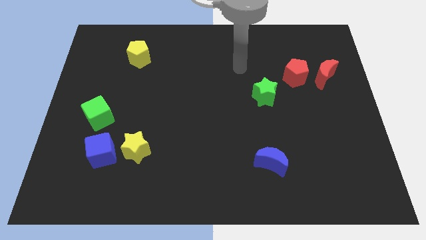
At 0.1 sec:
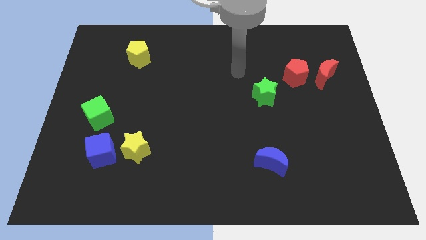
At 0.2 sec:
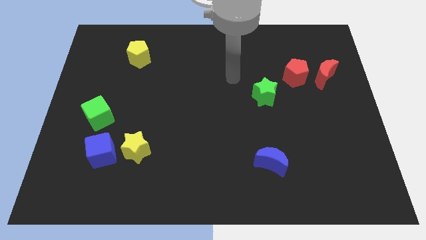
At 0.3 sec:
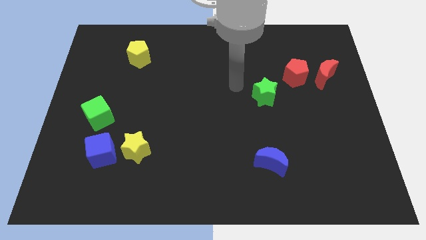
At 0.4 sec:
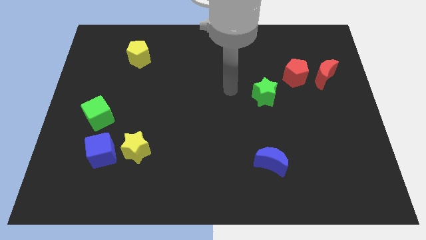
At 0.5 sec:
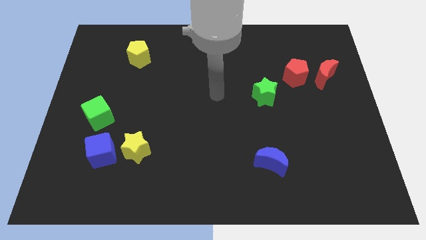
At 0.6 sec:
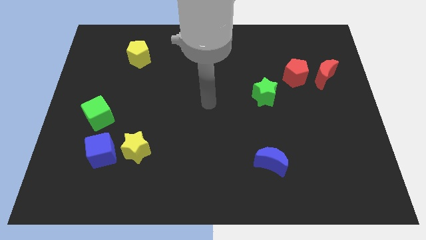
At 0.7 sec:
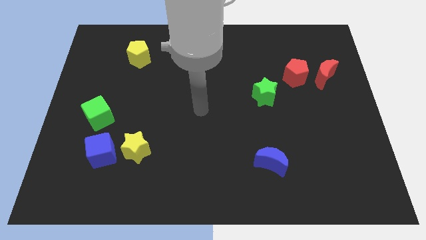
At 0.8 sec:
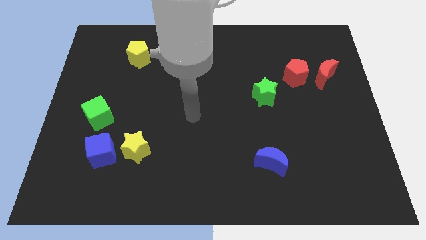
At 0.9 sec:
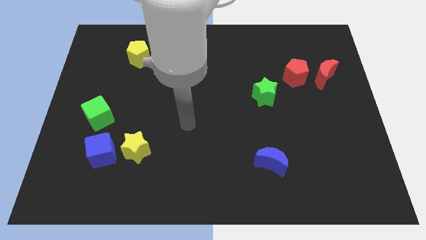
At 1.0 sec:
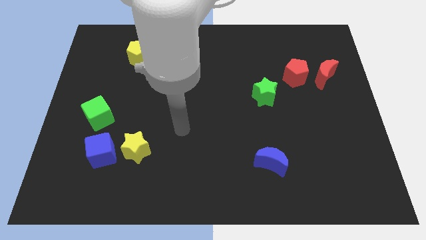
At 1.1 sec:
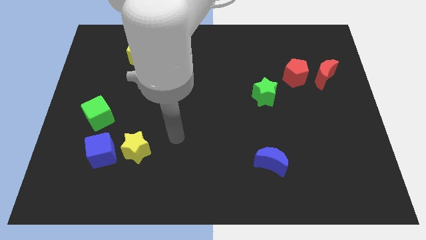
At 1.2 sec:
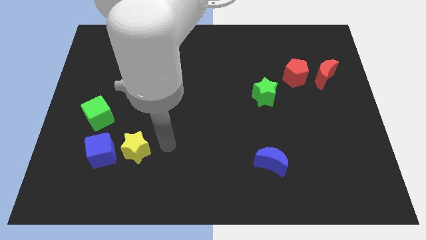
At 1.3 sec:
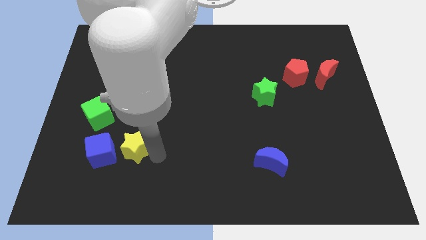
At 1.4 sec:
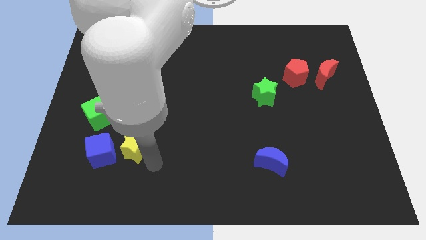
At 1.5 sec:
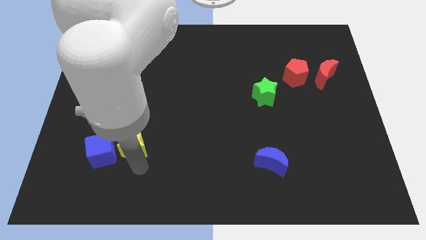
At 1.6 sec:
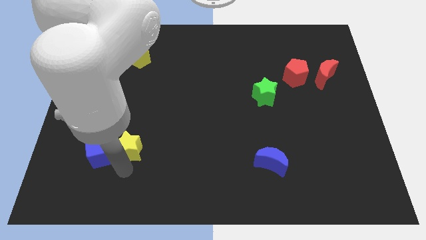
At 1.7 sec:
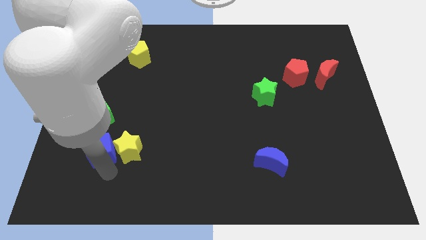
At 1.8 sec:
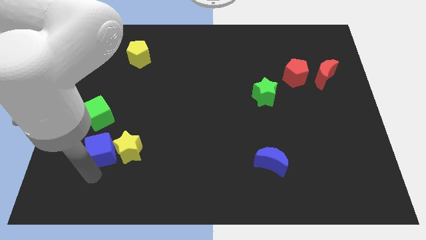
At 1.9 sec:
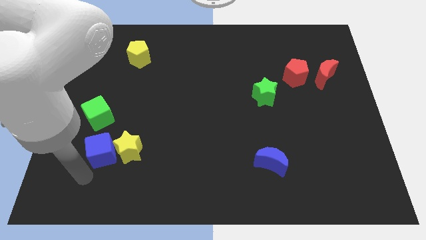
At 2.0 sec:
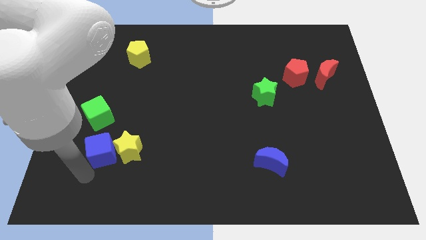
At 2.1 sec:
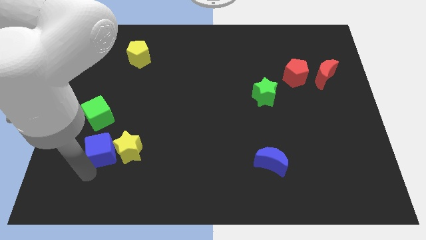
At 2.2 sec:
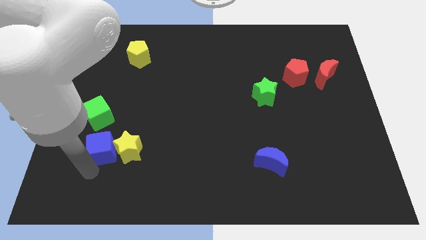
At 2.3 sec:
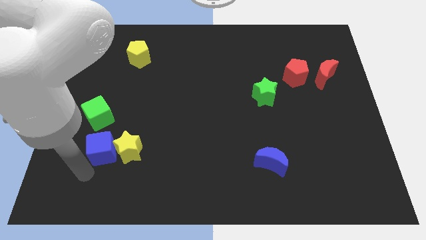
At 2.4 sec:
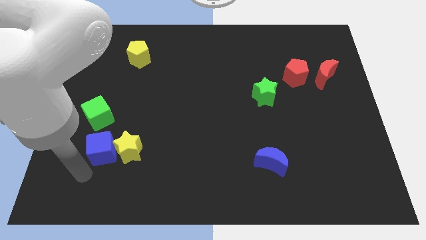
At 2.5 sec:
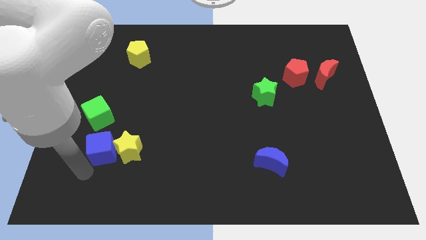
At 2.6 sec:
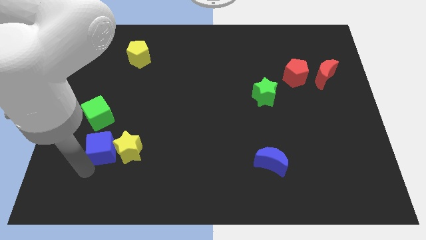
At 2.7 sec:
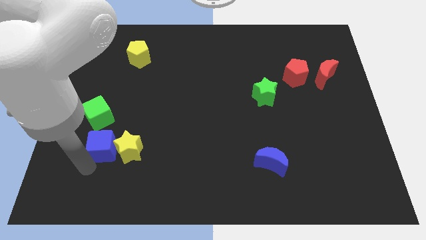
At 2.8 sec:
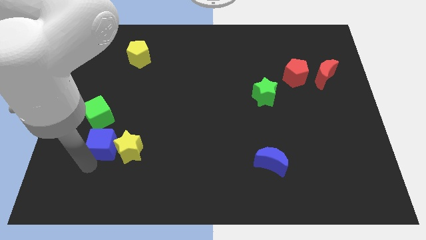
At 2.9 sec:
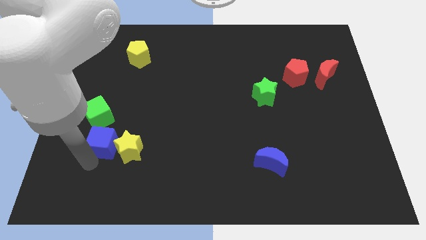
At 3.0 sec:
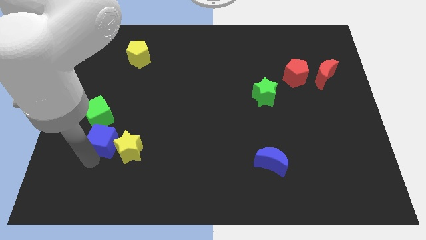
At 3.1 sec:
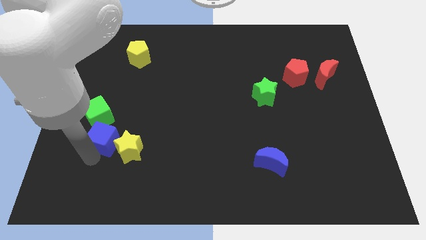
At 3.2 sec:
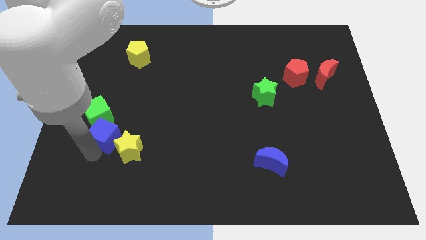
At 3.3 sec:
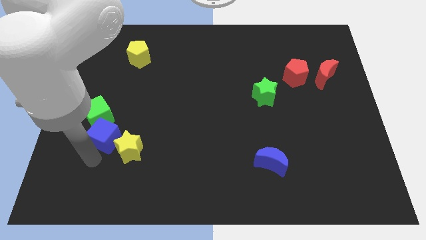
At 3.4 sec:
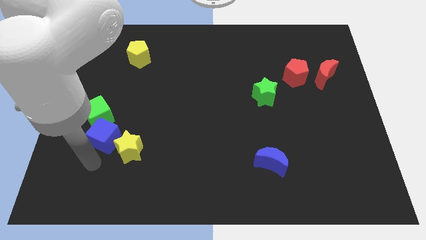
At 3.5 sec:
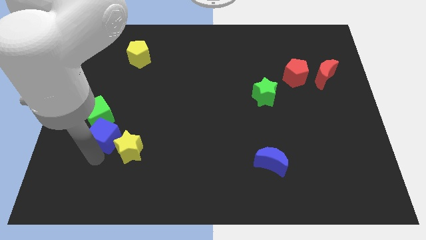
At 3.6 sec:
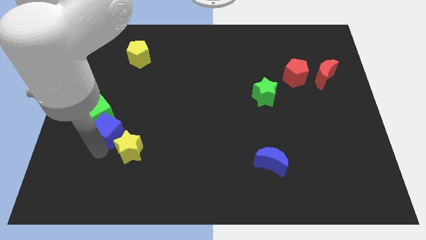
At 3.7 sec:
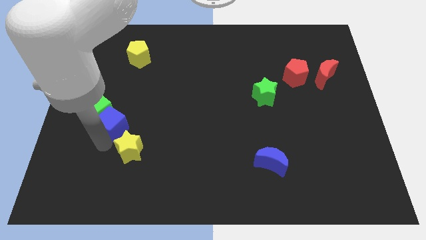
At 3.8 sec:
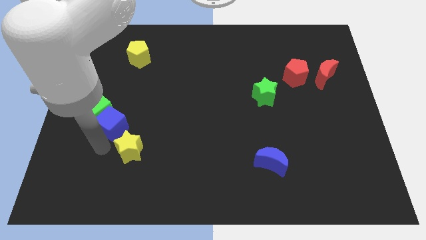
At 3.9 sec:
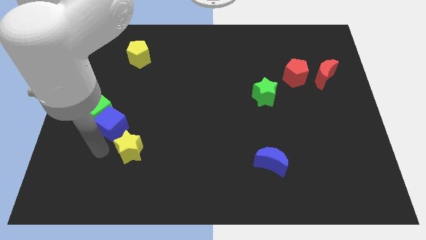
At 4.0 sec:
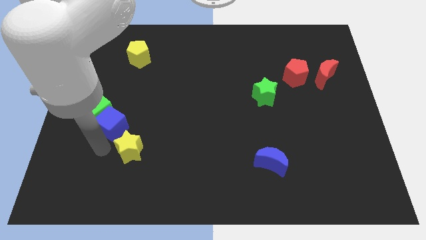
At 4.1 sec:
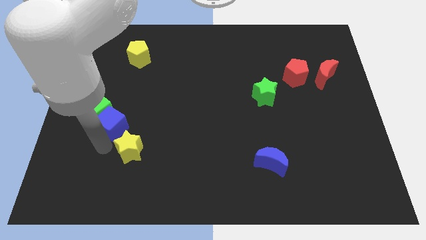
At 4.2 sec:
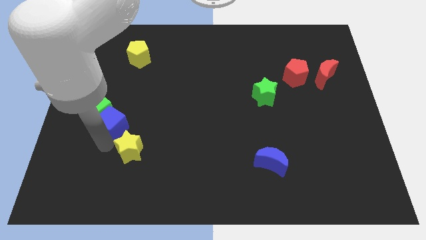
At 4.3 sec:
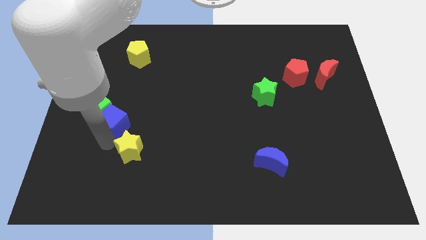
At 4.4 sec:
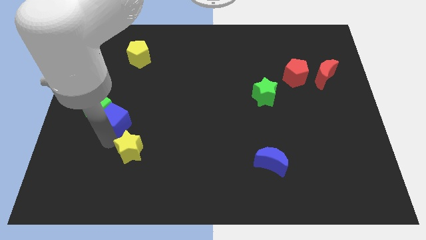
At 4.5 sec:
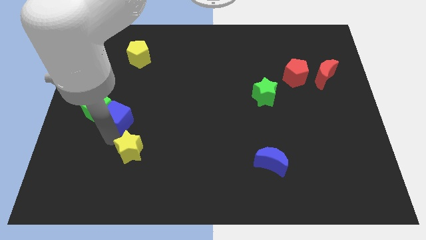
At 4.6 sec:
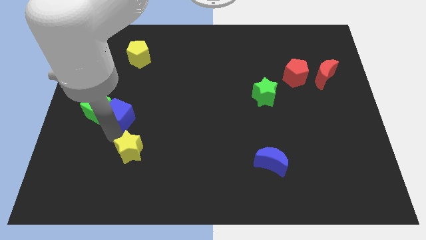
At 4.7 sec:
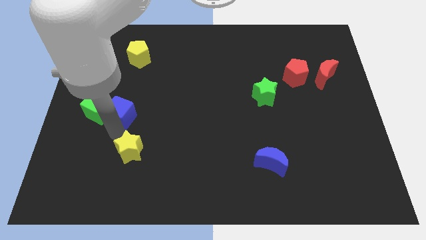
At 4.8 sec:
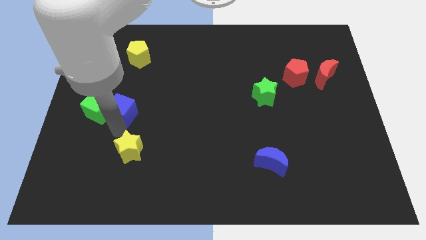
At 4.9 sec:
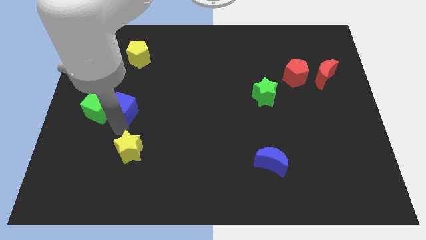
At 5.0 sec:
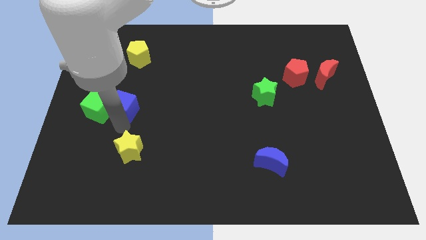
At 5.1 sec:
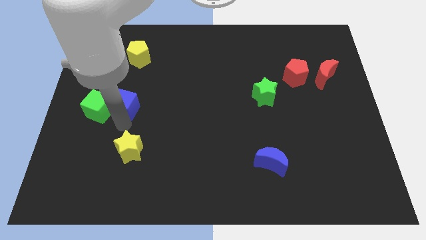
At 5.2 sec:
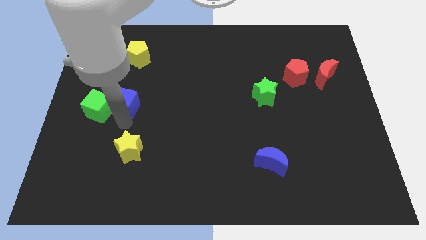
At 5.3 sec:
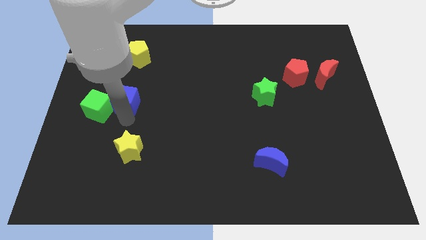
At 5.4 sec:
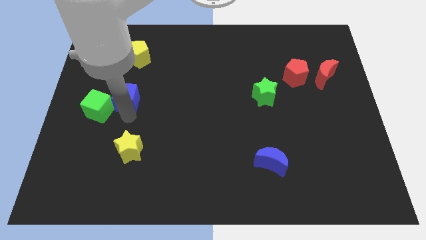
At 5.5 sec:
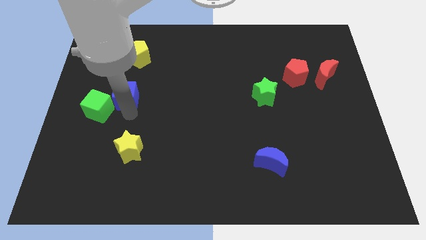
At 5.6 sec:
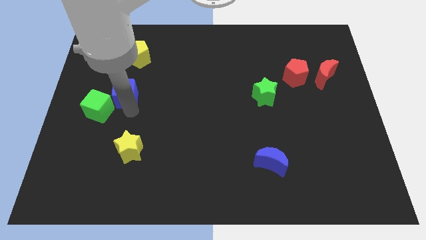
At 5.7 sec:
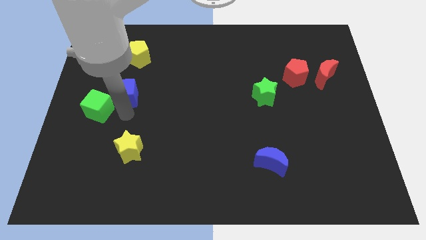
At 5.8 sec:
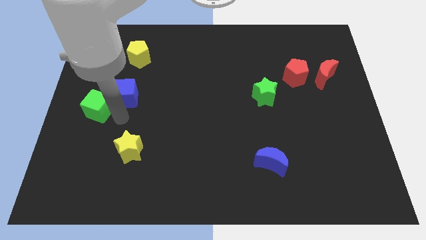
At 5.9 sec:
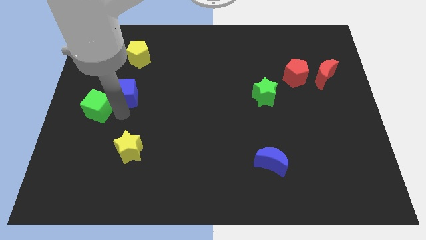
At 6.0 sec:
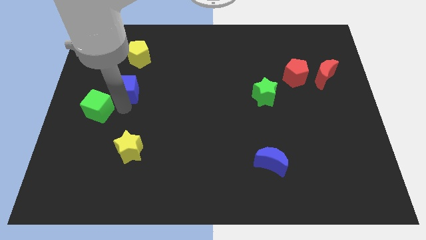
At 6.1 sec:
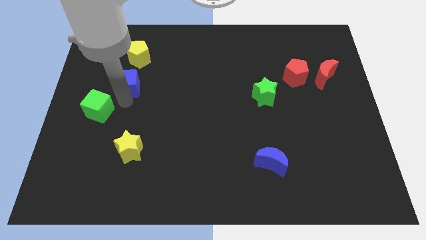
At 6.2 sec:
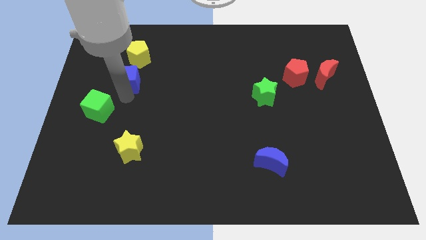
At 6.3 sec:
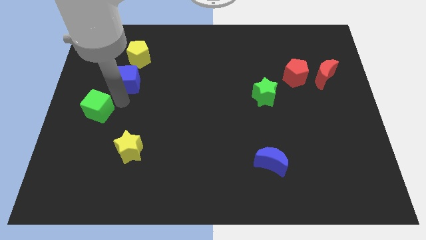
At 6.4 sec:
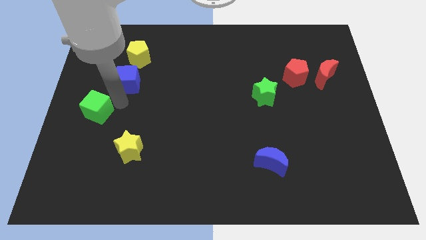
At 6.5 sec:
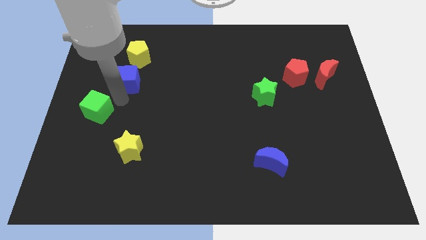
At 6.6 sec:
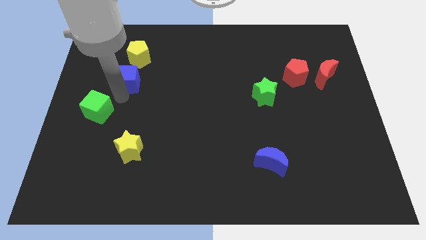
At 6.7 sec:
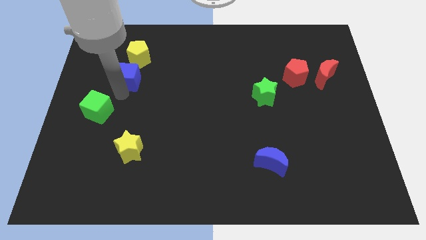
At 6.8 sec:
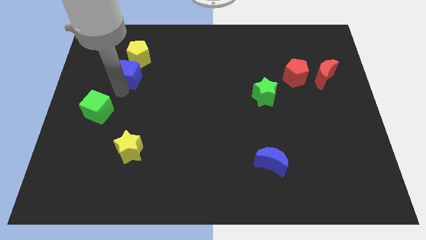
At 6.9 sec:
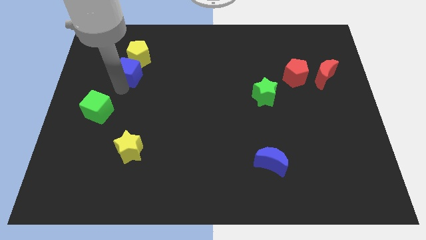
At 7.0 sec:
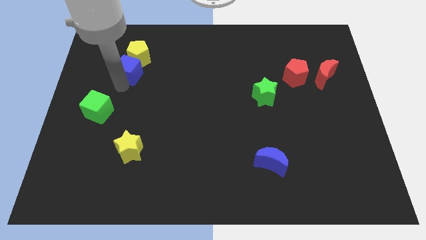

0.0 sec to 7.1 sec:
slide the blue cube towards the yellow pentagon

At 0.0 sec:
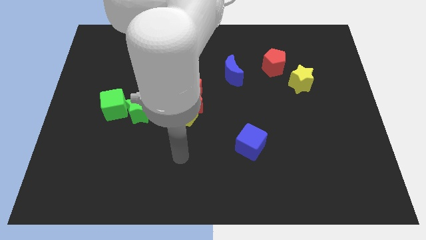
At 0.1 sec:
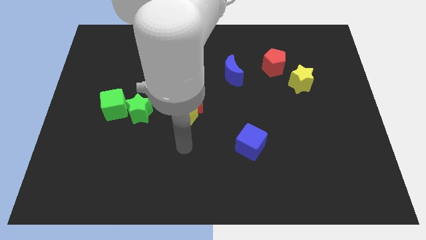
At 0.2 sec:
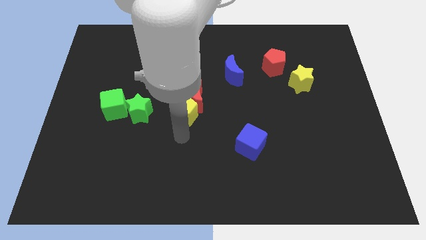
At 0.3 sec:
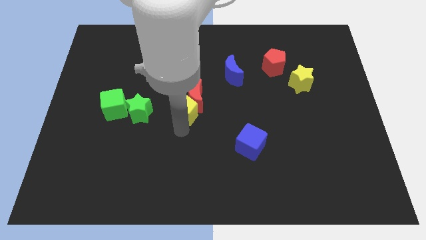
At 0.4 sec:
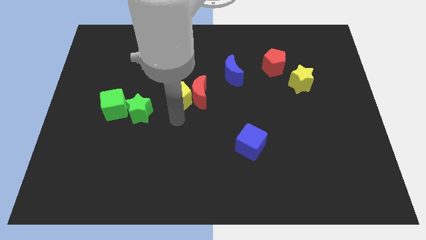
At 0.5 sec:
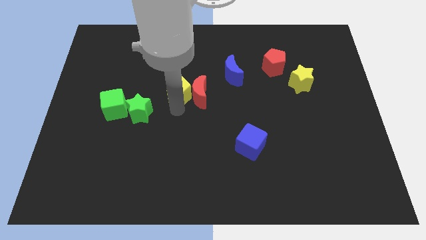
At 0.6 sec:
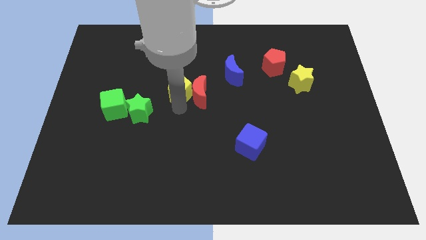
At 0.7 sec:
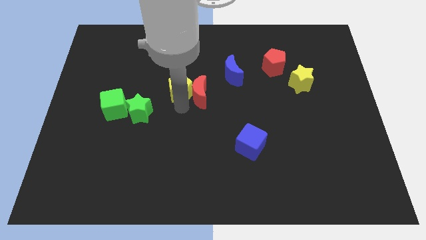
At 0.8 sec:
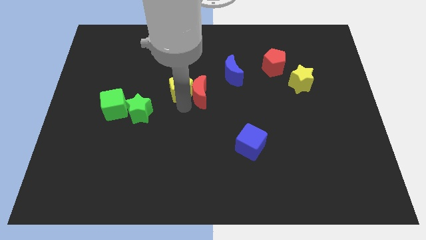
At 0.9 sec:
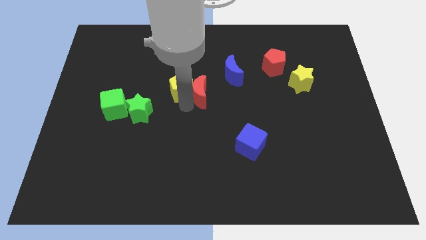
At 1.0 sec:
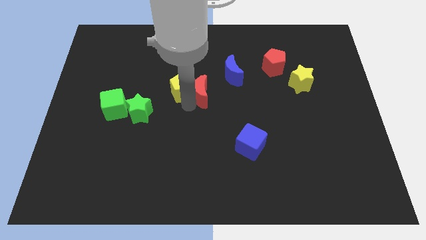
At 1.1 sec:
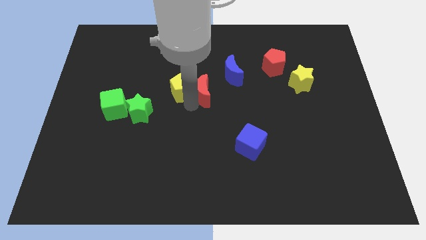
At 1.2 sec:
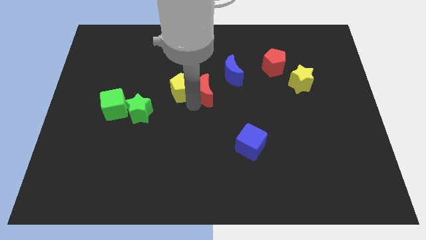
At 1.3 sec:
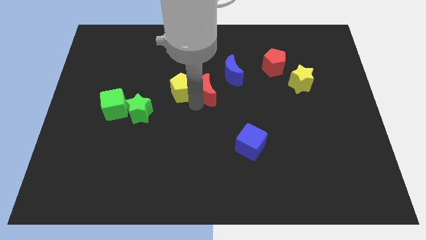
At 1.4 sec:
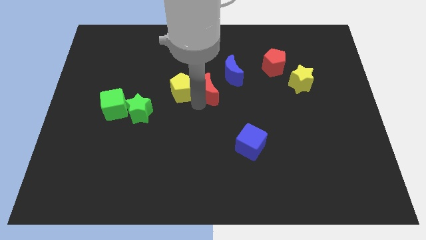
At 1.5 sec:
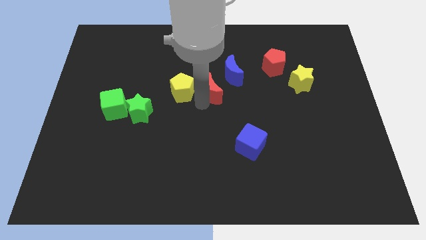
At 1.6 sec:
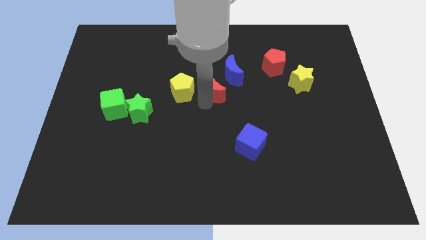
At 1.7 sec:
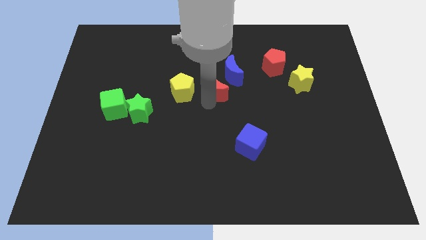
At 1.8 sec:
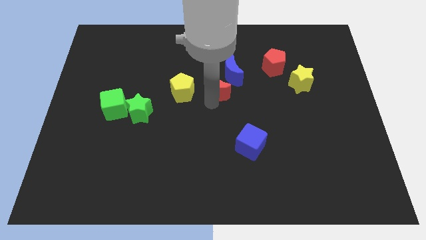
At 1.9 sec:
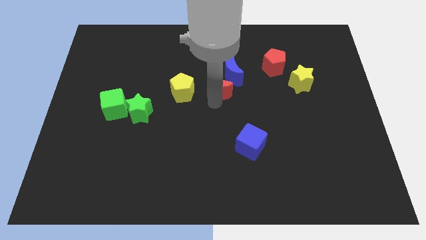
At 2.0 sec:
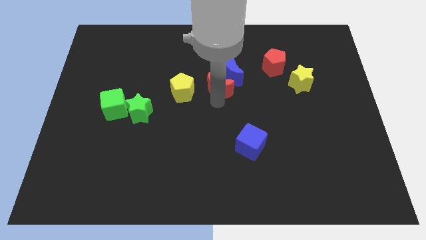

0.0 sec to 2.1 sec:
move the red moon next to the blue moon
